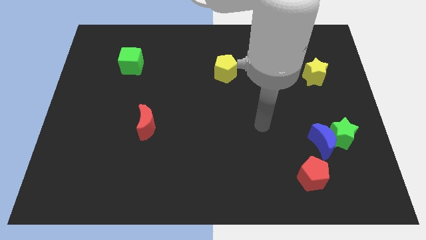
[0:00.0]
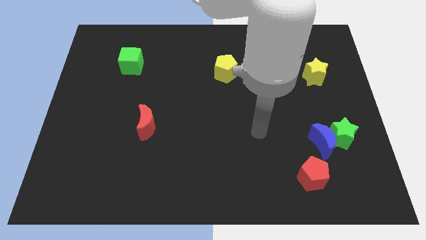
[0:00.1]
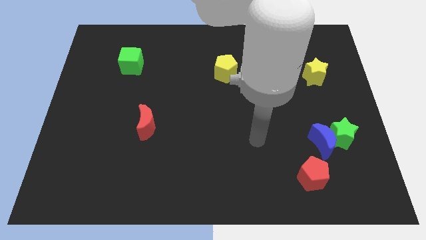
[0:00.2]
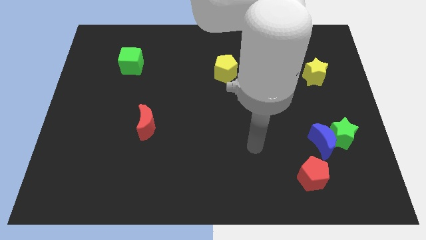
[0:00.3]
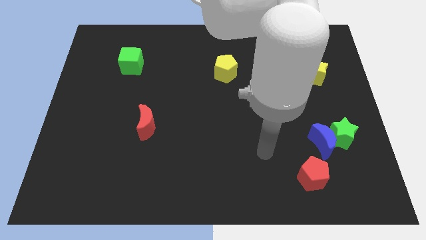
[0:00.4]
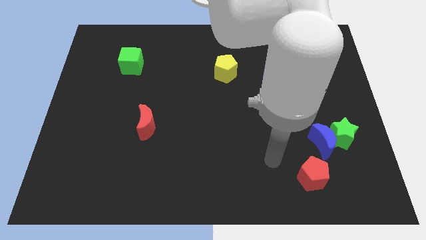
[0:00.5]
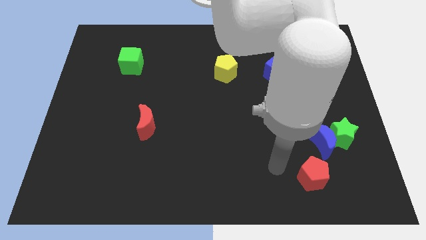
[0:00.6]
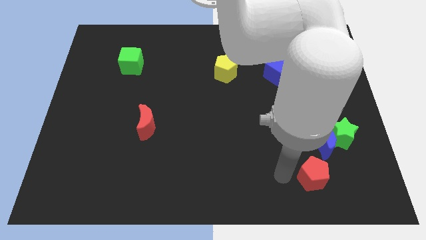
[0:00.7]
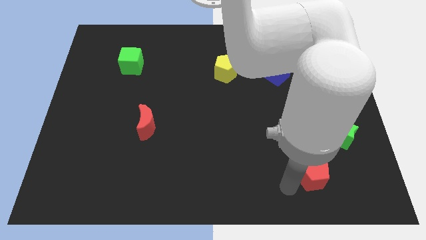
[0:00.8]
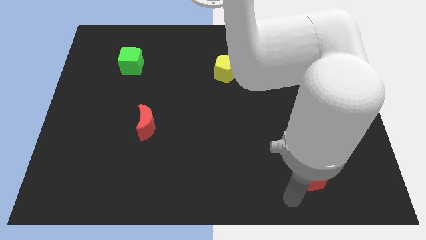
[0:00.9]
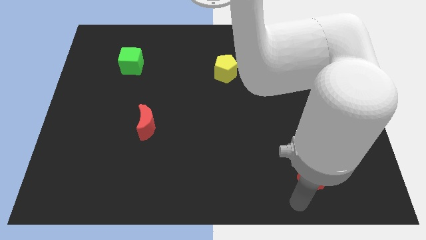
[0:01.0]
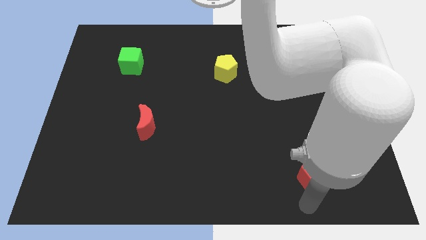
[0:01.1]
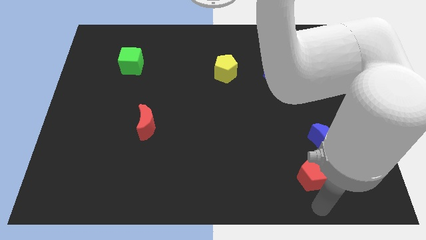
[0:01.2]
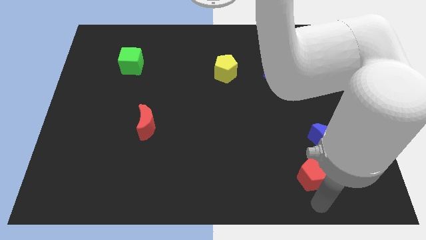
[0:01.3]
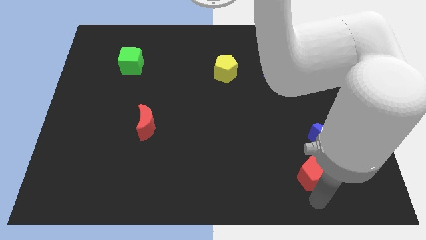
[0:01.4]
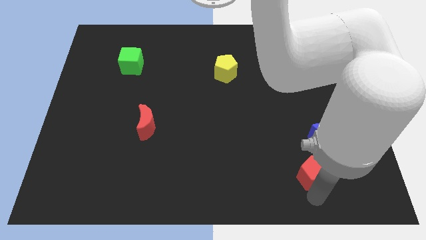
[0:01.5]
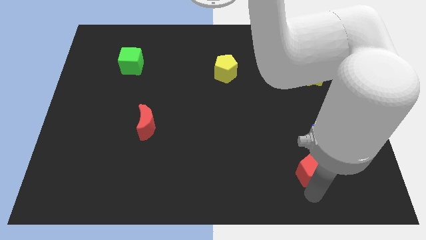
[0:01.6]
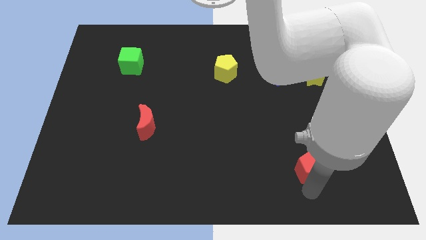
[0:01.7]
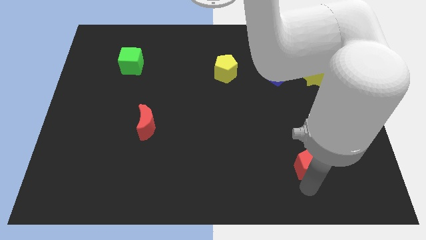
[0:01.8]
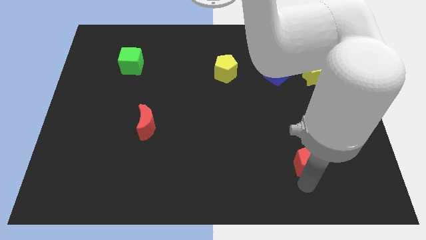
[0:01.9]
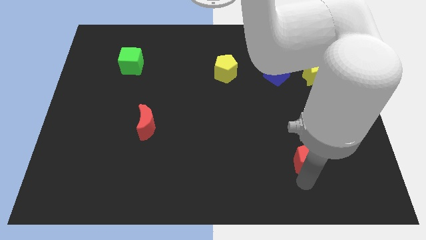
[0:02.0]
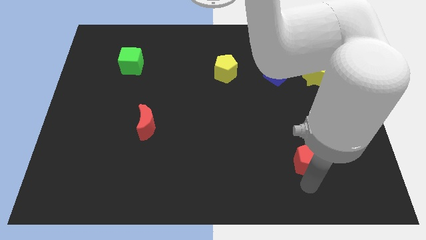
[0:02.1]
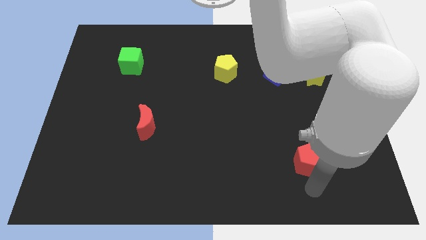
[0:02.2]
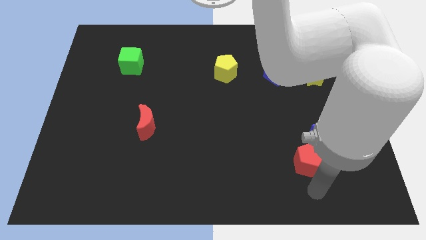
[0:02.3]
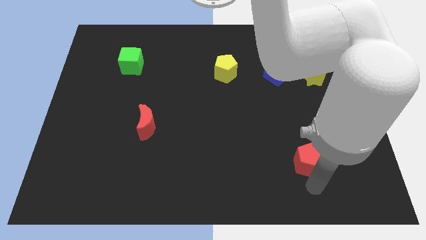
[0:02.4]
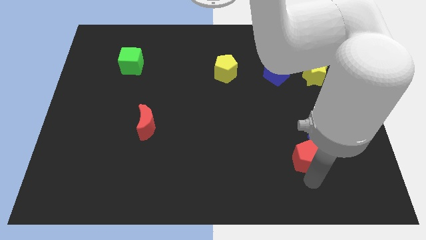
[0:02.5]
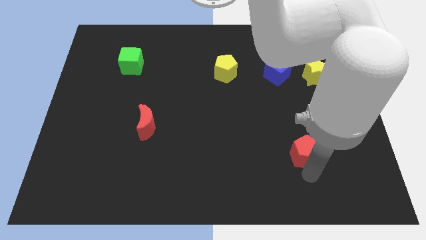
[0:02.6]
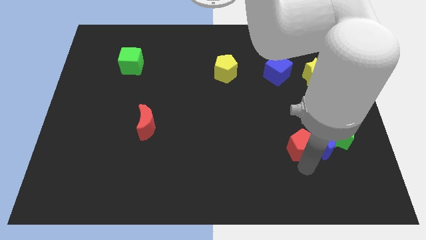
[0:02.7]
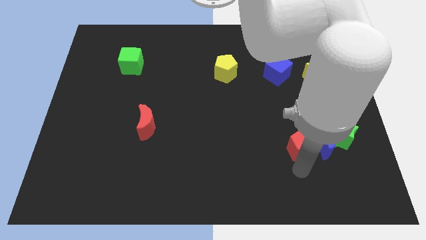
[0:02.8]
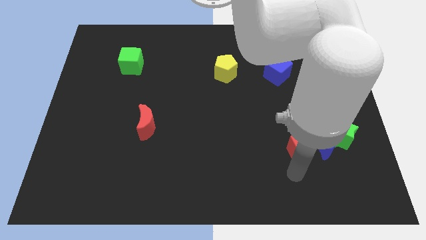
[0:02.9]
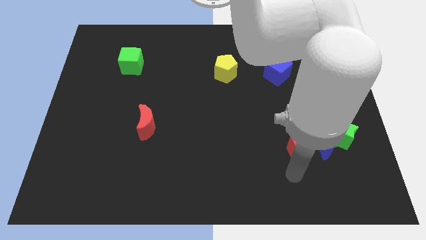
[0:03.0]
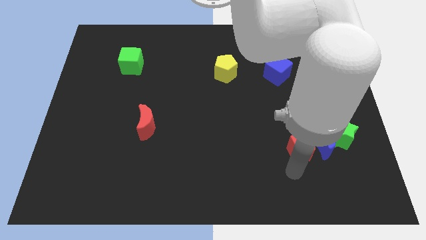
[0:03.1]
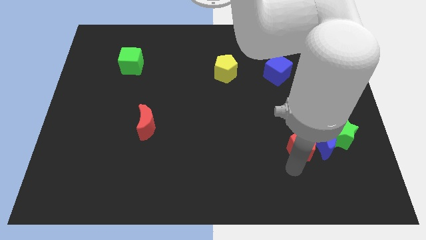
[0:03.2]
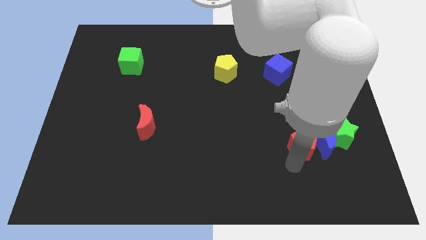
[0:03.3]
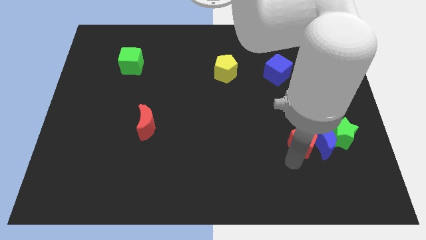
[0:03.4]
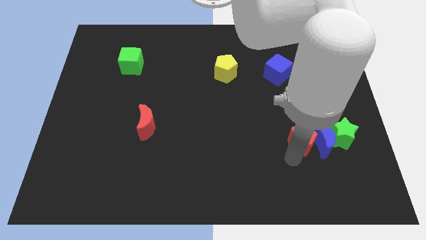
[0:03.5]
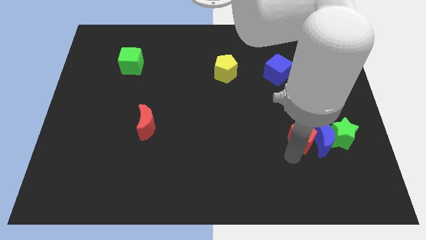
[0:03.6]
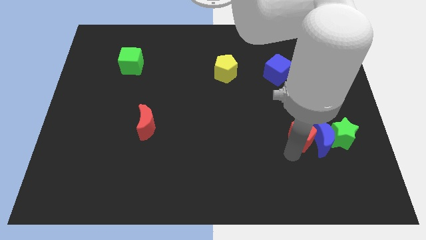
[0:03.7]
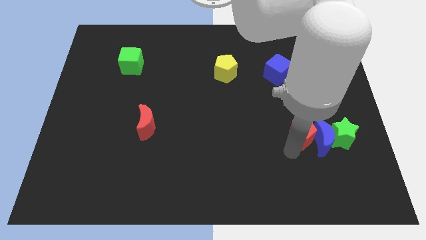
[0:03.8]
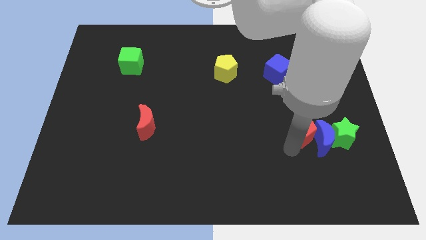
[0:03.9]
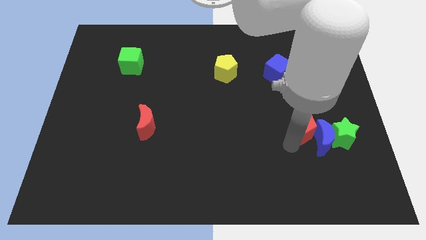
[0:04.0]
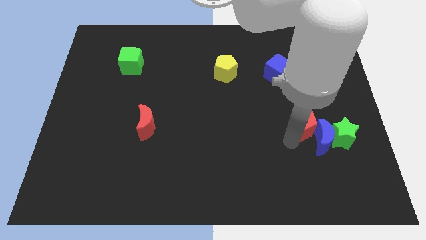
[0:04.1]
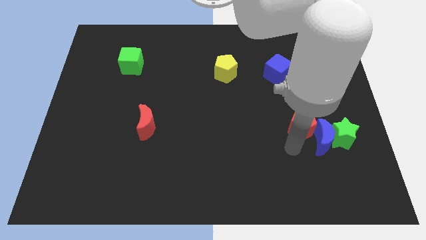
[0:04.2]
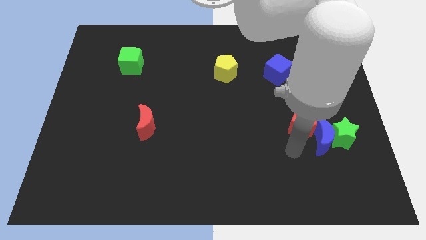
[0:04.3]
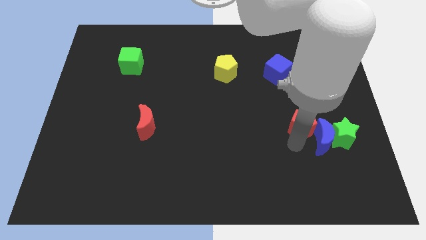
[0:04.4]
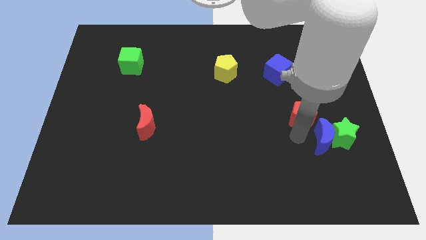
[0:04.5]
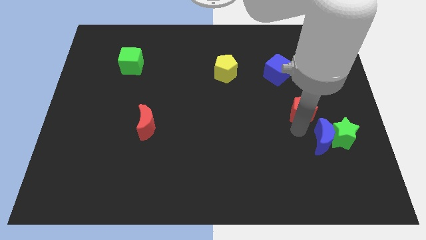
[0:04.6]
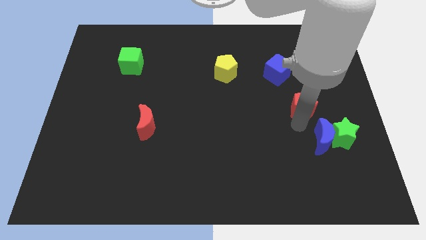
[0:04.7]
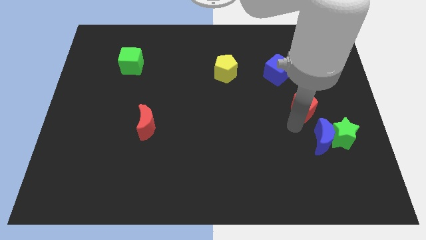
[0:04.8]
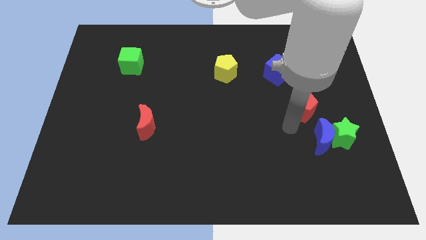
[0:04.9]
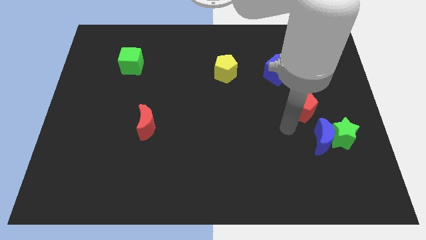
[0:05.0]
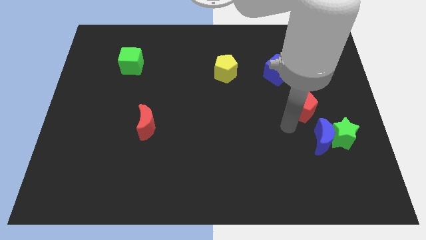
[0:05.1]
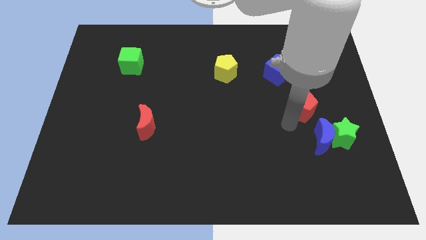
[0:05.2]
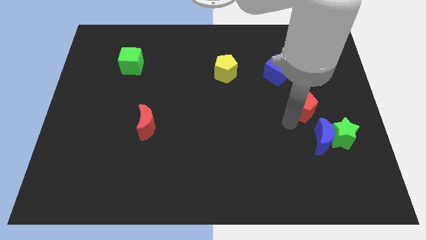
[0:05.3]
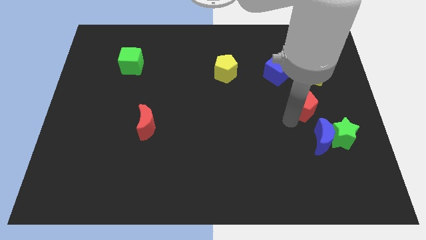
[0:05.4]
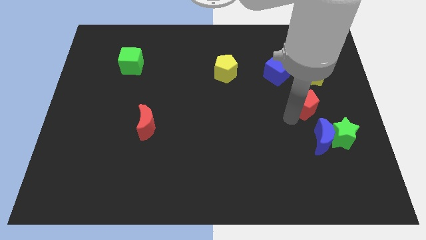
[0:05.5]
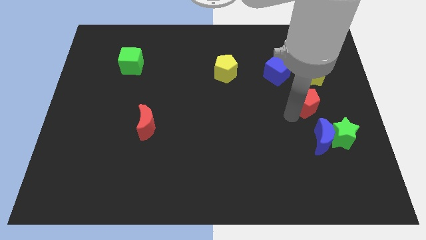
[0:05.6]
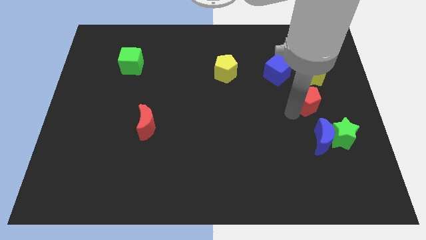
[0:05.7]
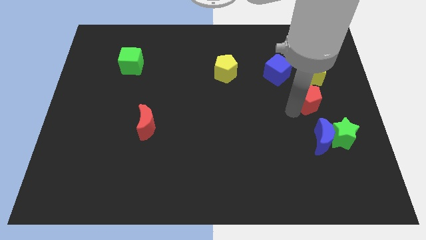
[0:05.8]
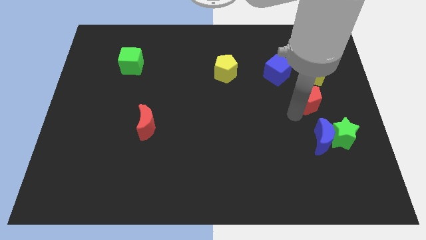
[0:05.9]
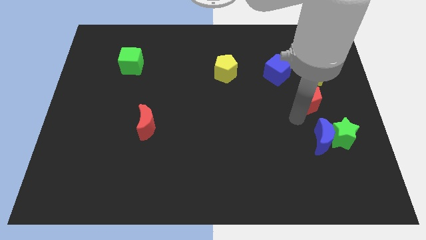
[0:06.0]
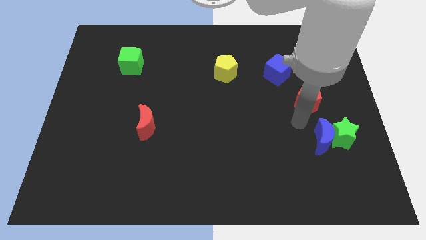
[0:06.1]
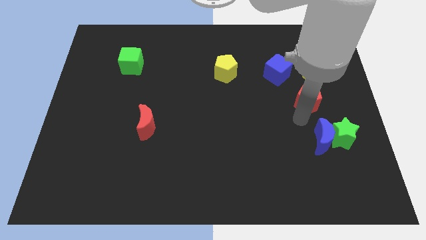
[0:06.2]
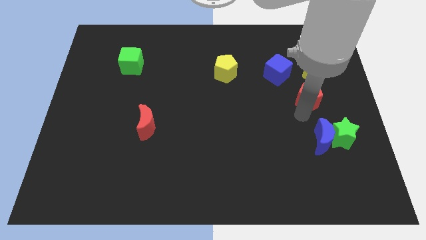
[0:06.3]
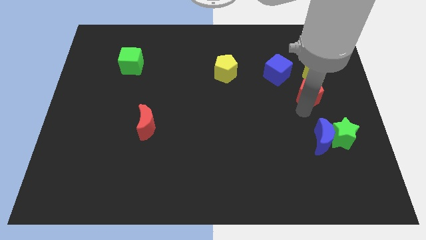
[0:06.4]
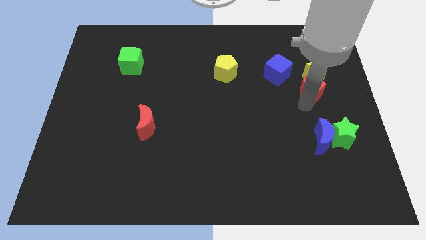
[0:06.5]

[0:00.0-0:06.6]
push the red pentagon towards the yellow star
